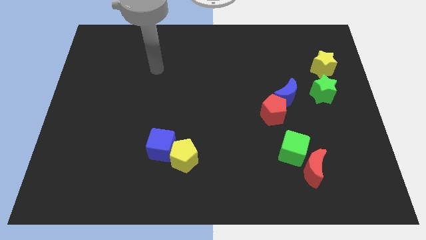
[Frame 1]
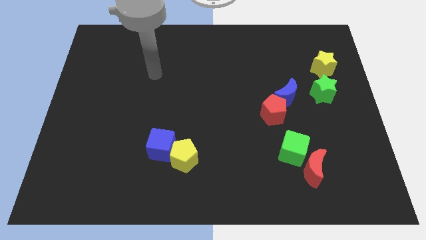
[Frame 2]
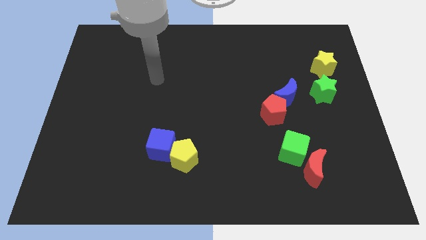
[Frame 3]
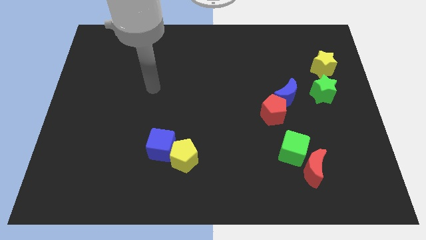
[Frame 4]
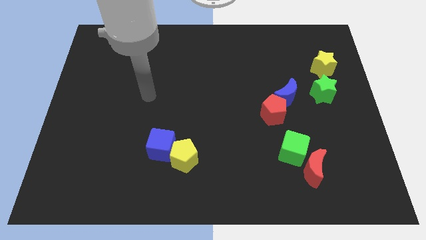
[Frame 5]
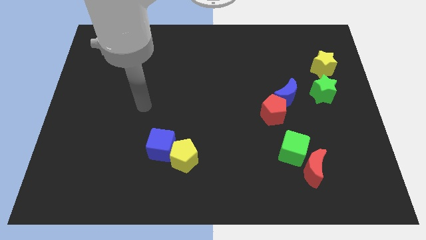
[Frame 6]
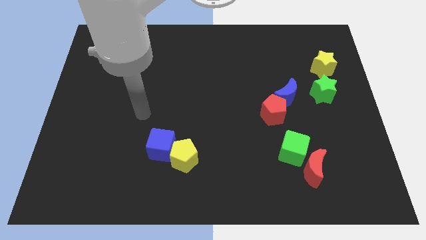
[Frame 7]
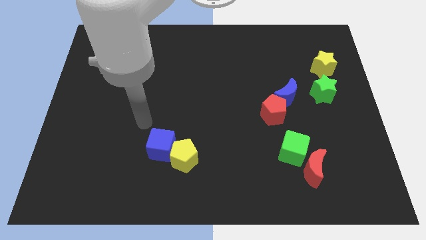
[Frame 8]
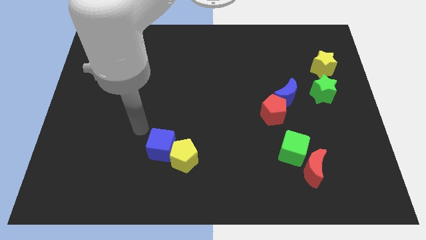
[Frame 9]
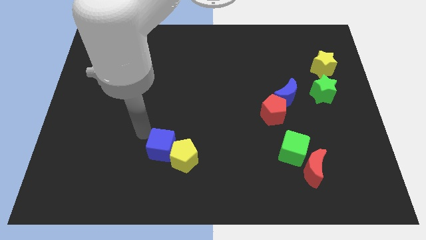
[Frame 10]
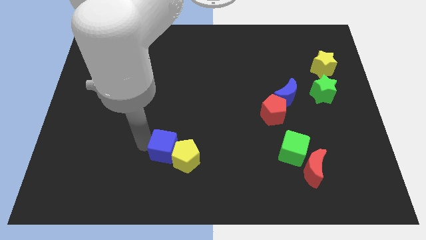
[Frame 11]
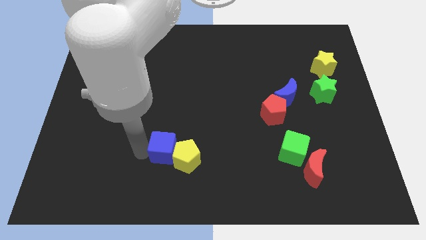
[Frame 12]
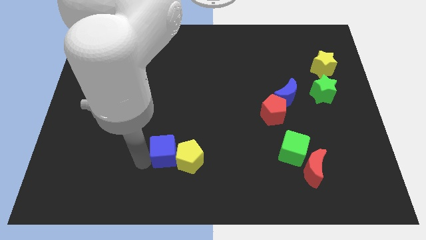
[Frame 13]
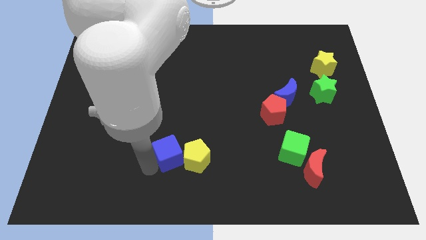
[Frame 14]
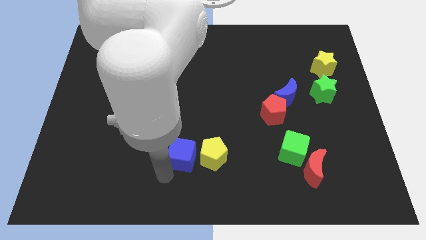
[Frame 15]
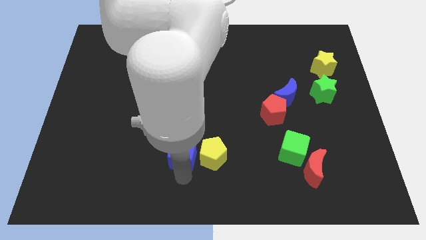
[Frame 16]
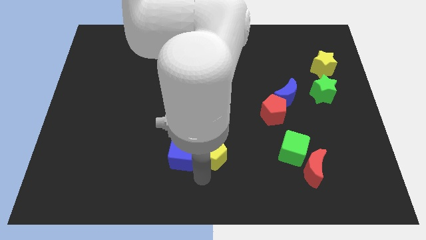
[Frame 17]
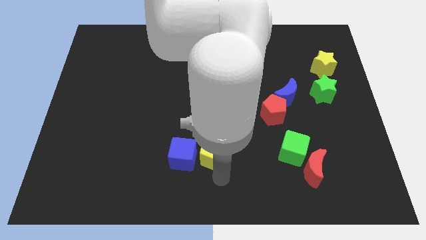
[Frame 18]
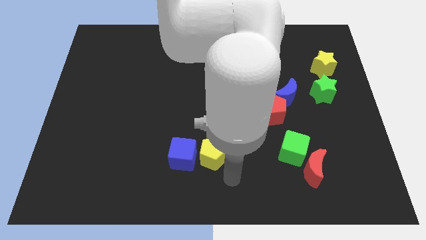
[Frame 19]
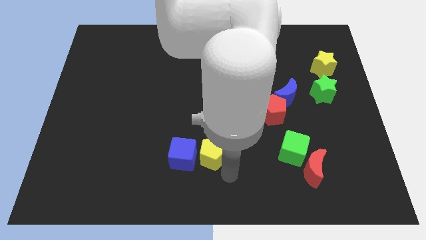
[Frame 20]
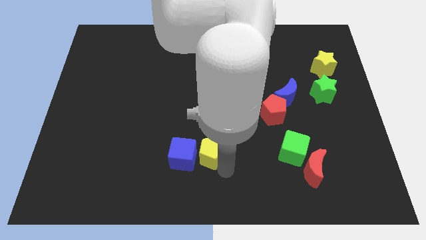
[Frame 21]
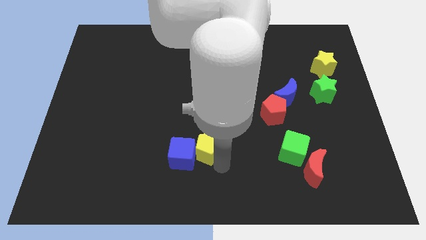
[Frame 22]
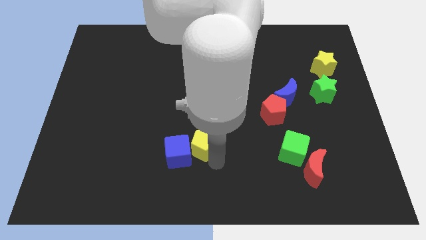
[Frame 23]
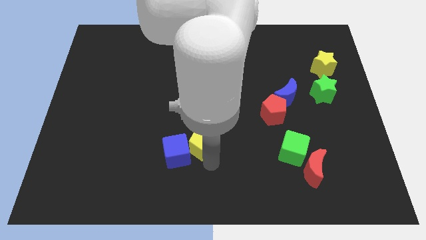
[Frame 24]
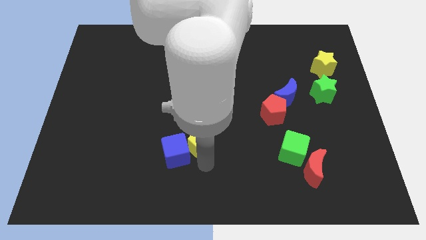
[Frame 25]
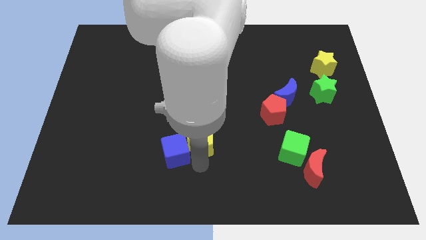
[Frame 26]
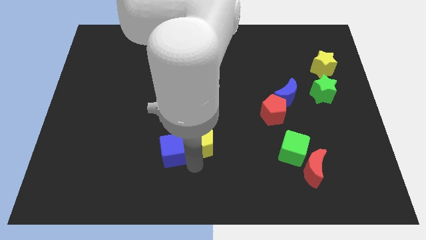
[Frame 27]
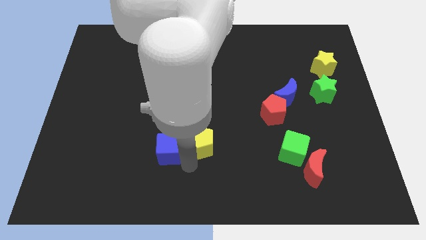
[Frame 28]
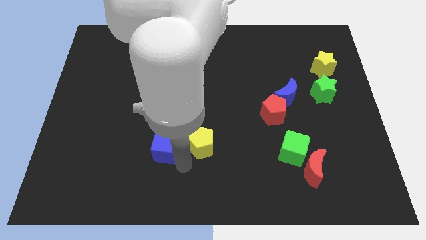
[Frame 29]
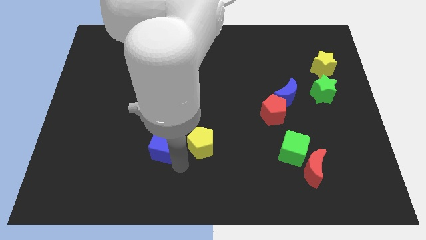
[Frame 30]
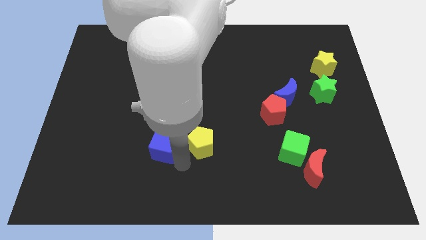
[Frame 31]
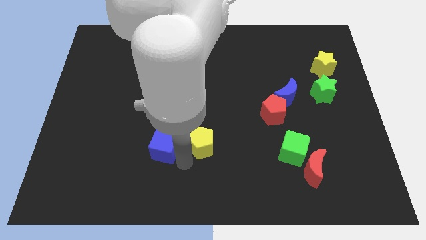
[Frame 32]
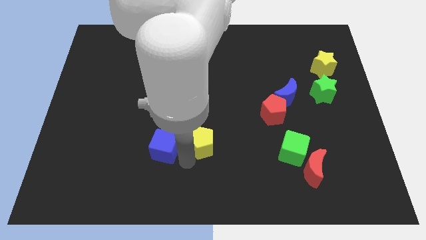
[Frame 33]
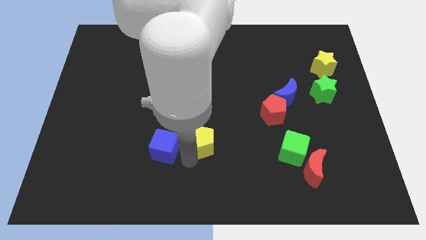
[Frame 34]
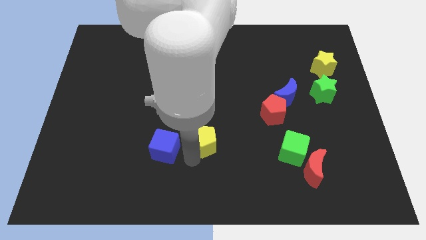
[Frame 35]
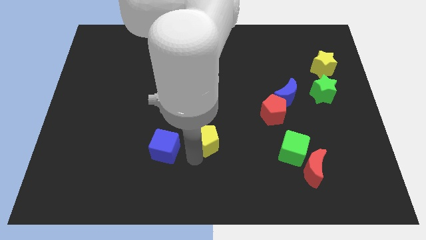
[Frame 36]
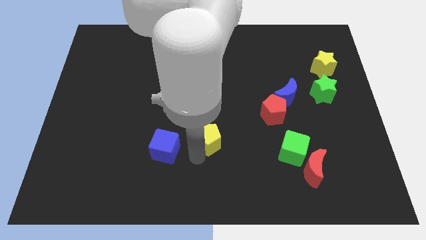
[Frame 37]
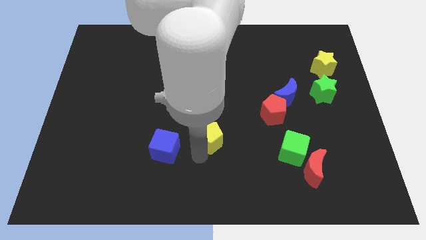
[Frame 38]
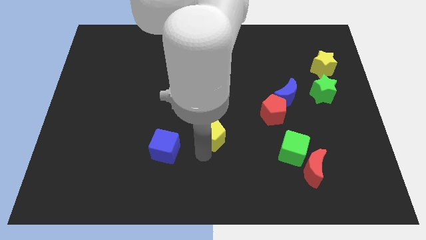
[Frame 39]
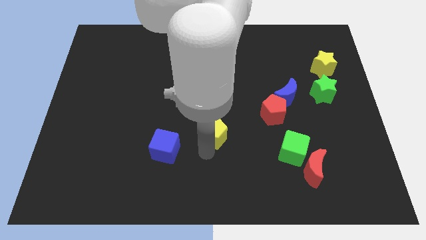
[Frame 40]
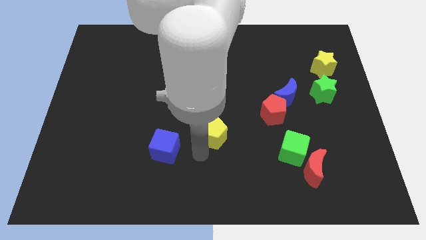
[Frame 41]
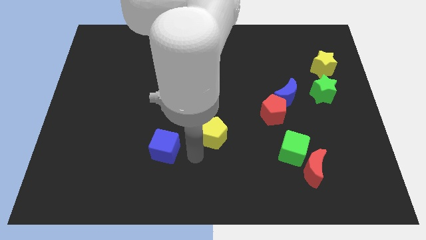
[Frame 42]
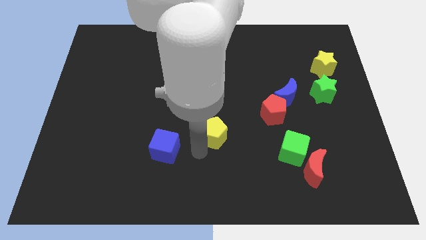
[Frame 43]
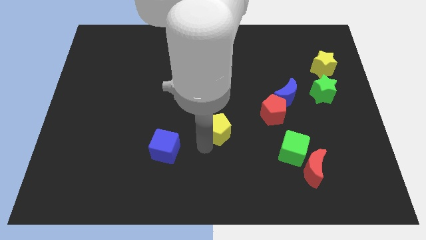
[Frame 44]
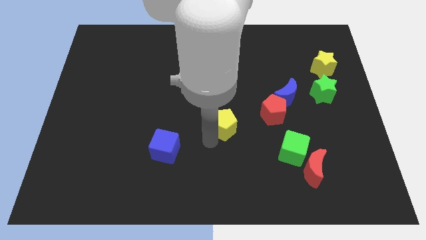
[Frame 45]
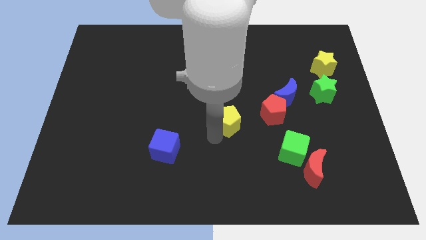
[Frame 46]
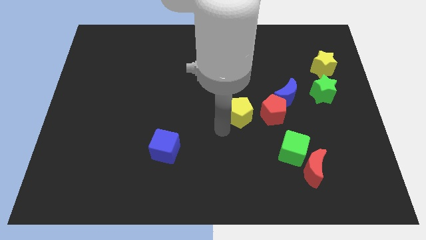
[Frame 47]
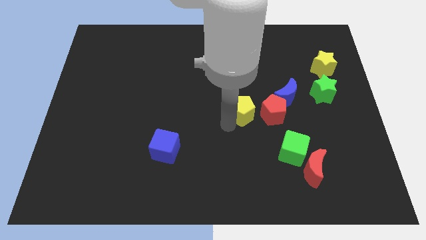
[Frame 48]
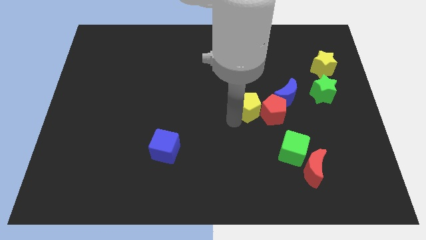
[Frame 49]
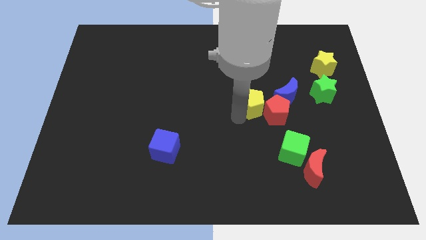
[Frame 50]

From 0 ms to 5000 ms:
push the yellow pentagon up and right diagonally

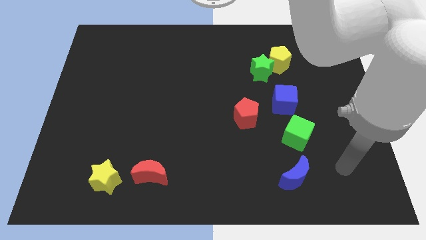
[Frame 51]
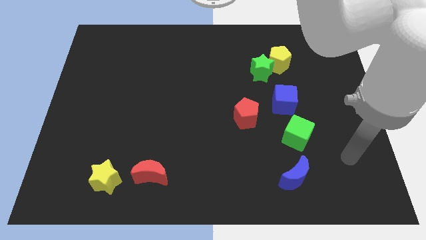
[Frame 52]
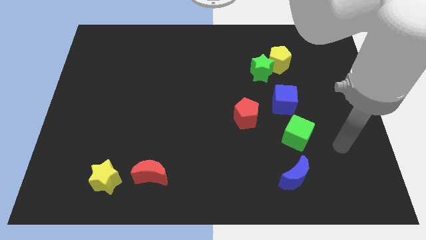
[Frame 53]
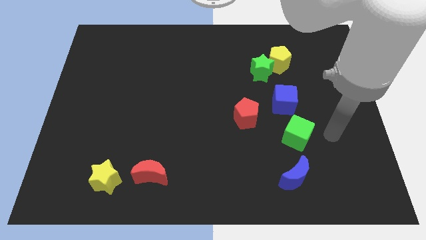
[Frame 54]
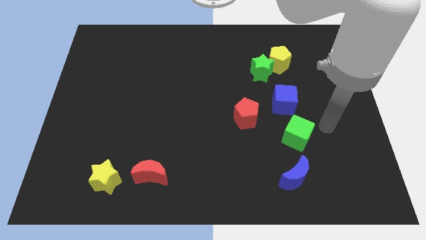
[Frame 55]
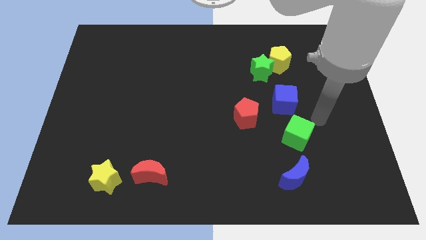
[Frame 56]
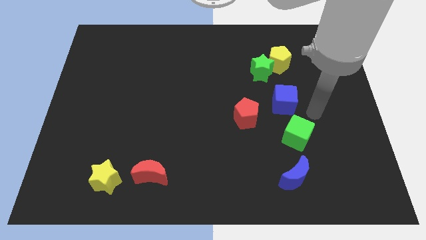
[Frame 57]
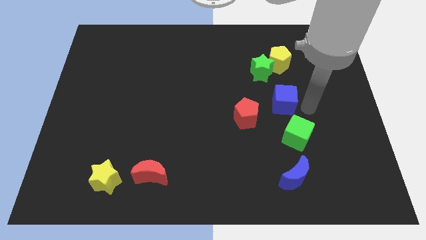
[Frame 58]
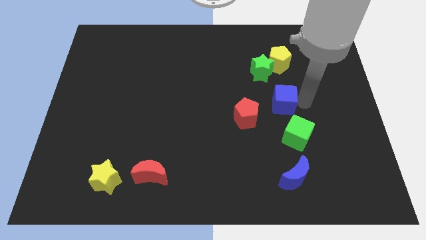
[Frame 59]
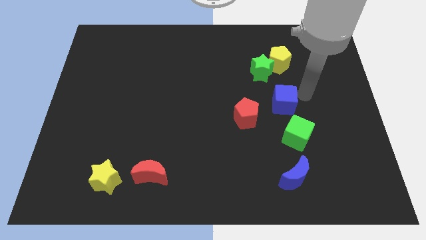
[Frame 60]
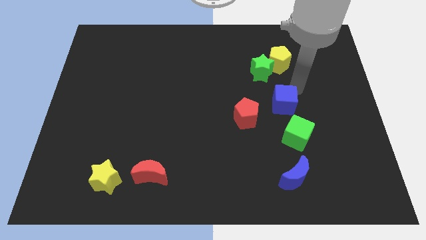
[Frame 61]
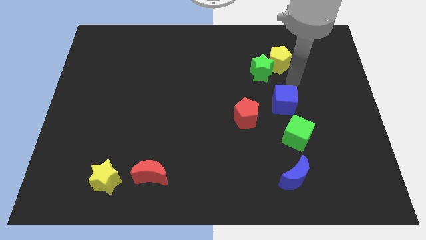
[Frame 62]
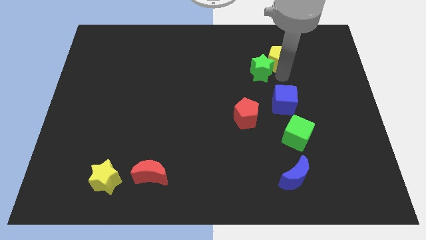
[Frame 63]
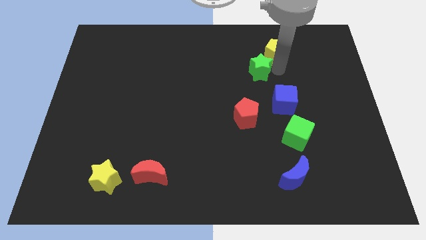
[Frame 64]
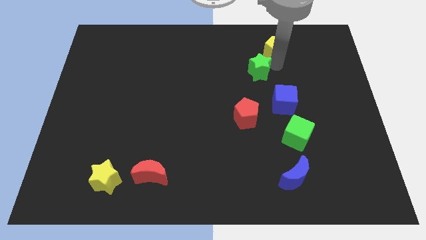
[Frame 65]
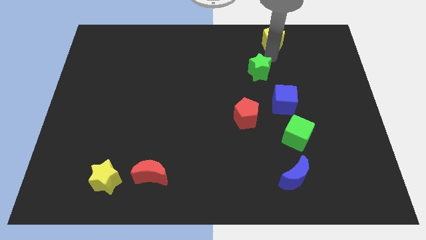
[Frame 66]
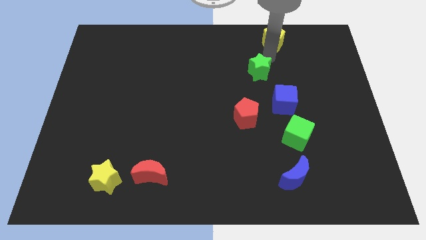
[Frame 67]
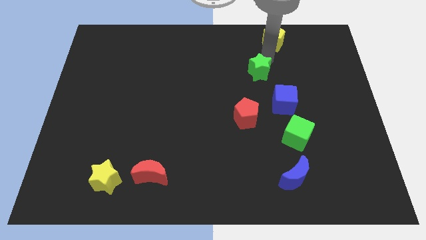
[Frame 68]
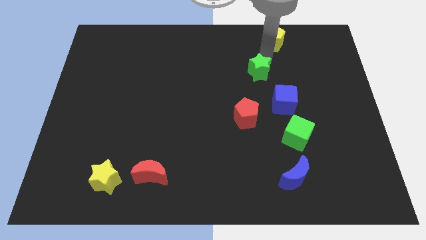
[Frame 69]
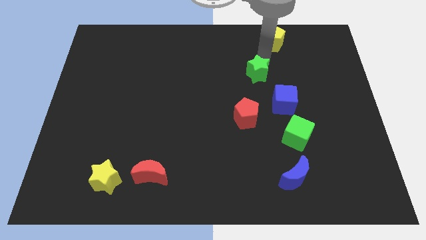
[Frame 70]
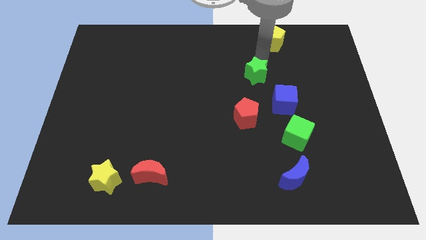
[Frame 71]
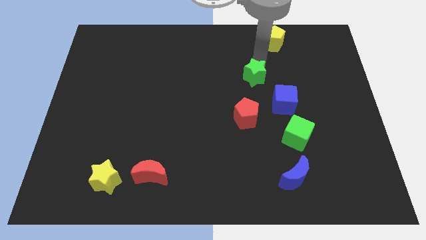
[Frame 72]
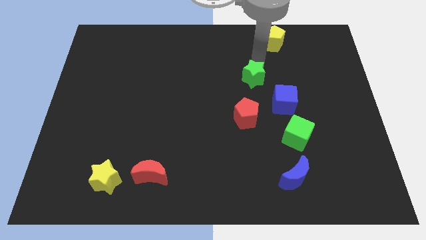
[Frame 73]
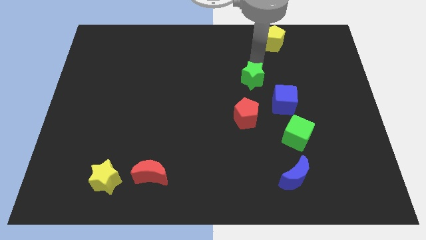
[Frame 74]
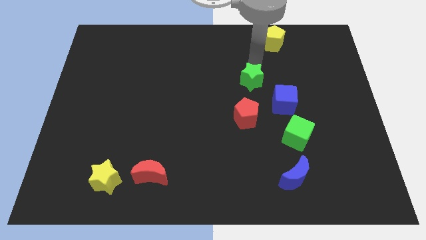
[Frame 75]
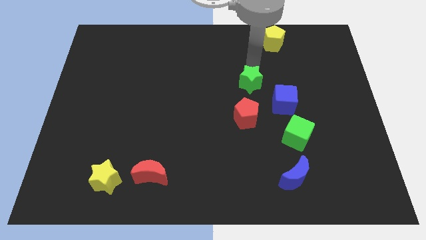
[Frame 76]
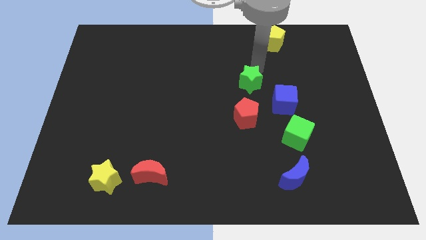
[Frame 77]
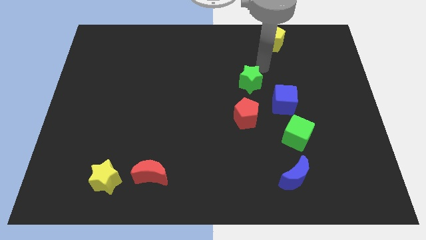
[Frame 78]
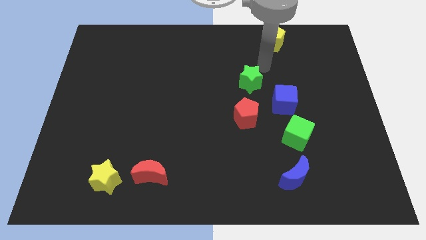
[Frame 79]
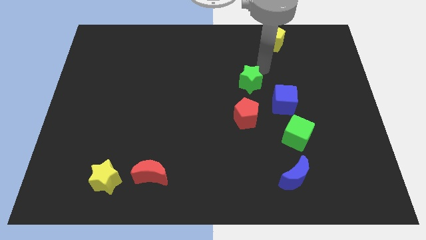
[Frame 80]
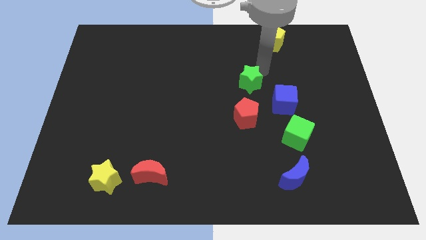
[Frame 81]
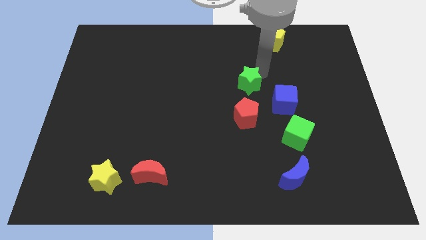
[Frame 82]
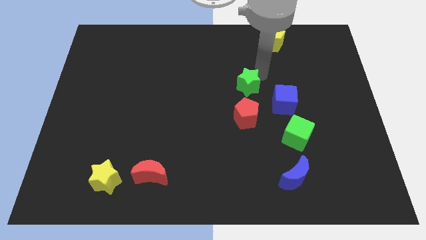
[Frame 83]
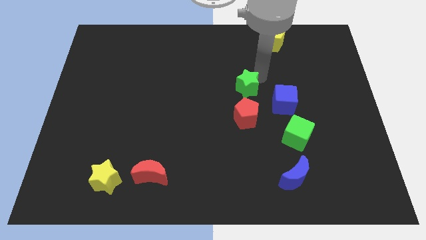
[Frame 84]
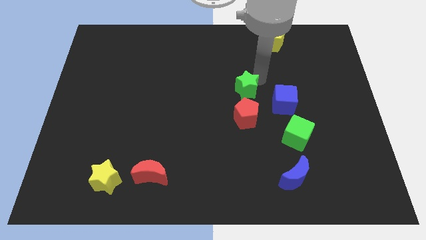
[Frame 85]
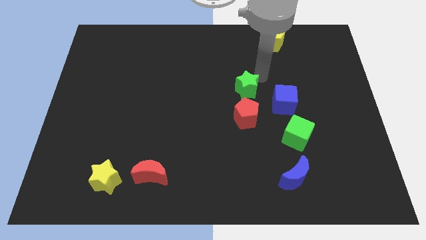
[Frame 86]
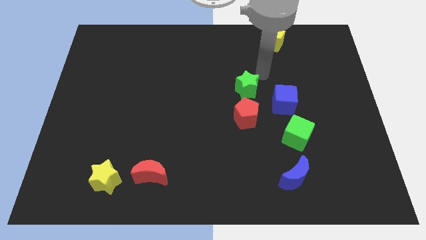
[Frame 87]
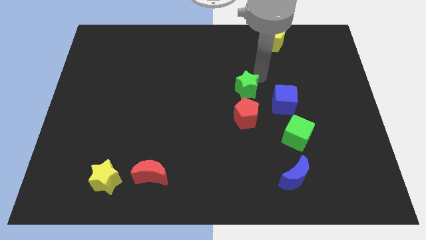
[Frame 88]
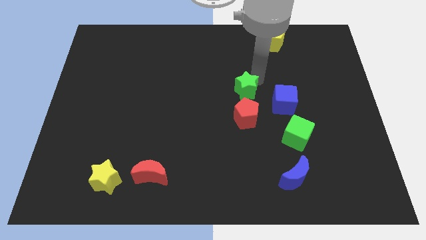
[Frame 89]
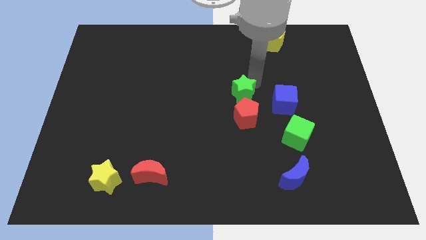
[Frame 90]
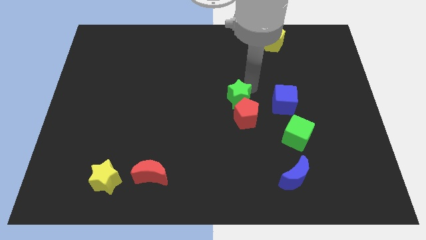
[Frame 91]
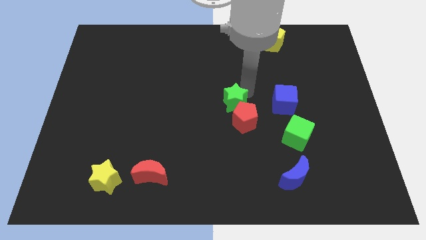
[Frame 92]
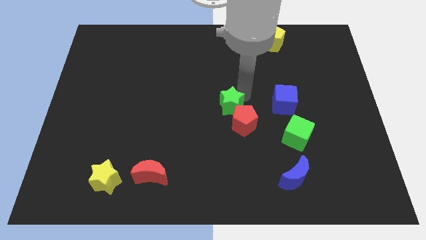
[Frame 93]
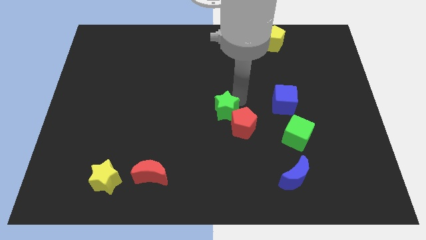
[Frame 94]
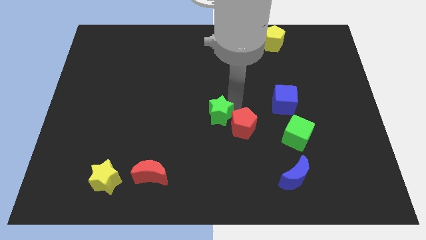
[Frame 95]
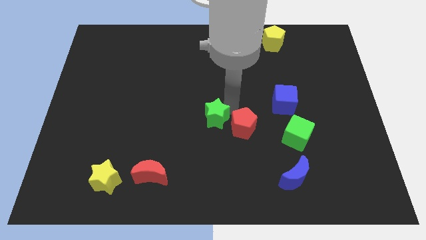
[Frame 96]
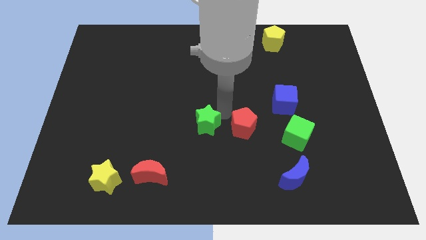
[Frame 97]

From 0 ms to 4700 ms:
push the green star diagonally down and to the left
